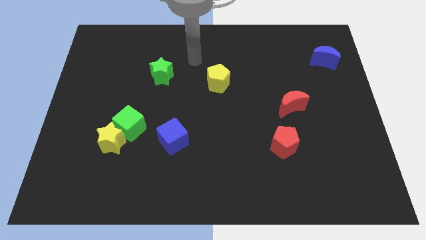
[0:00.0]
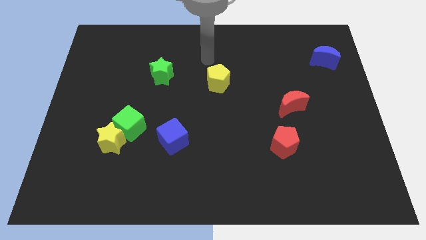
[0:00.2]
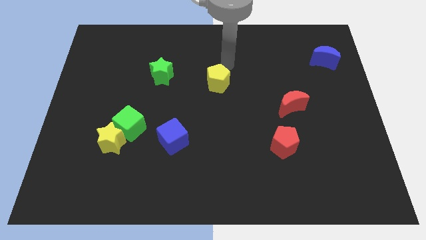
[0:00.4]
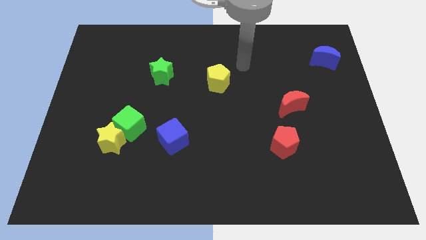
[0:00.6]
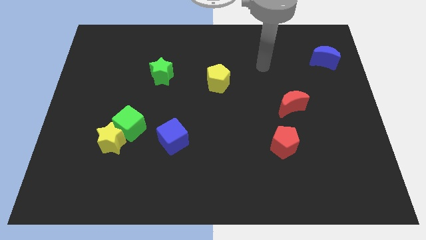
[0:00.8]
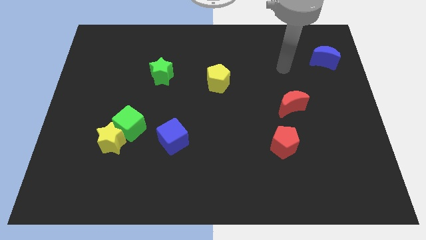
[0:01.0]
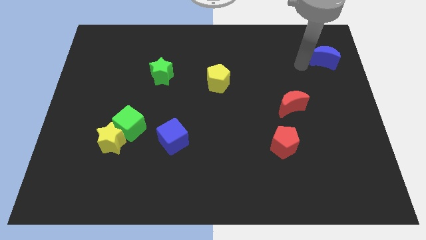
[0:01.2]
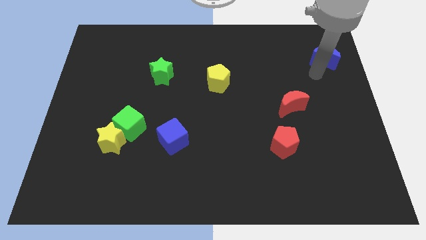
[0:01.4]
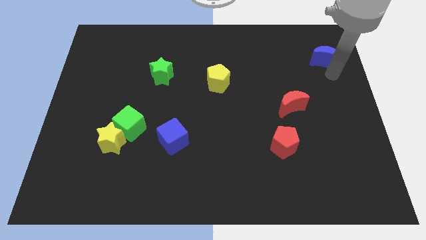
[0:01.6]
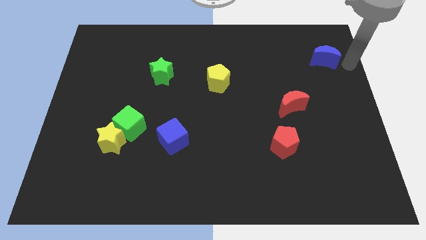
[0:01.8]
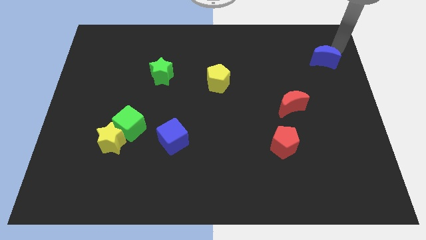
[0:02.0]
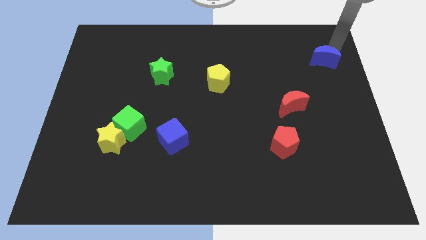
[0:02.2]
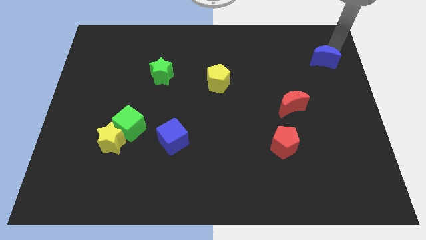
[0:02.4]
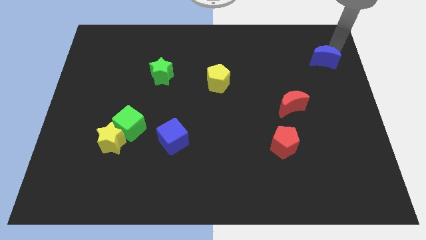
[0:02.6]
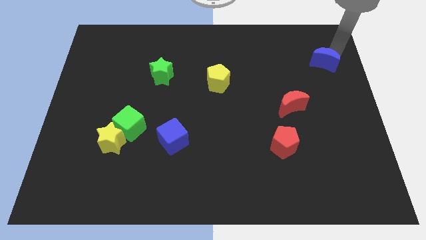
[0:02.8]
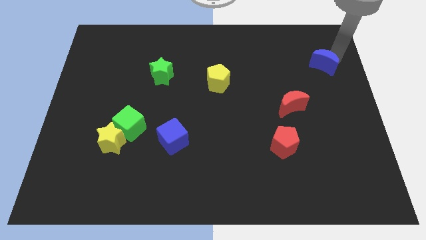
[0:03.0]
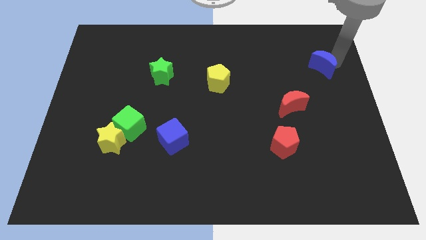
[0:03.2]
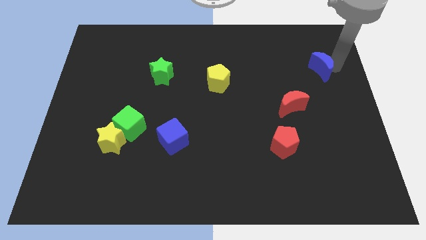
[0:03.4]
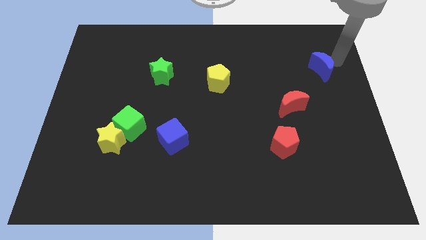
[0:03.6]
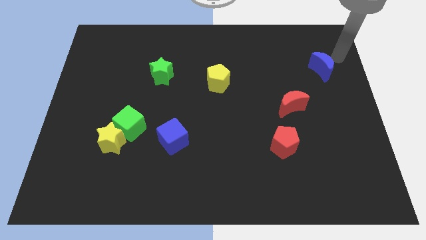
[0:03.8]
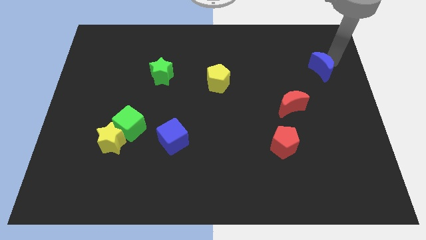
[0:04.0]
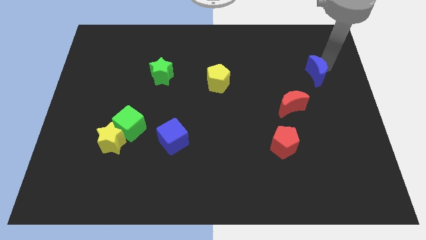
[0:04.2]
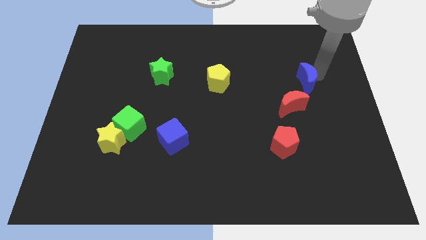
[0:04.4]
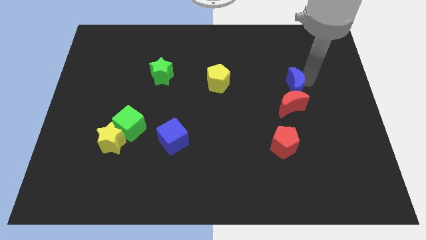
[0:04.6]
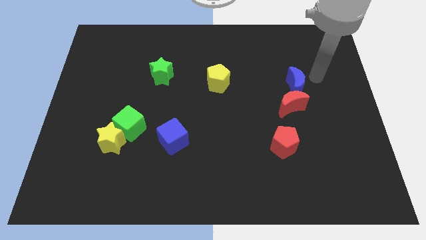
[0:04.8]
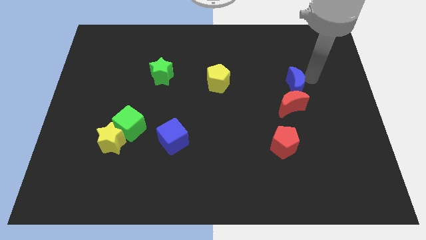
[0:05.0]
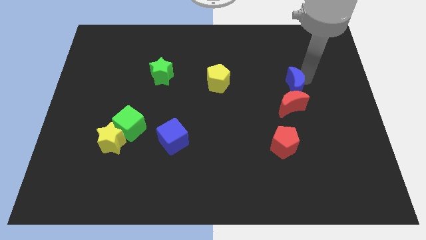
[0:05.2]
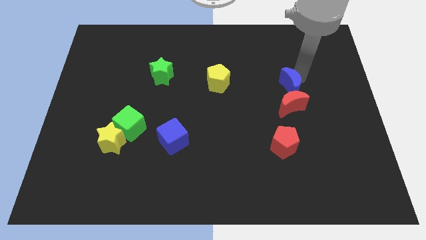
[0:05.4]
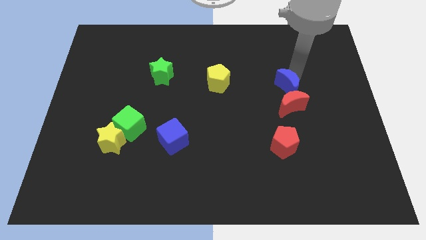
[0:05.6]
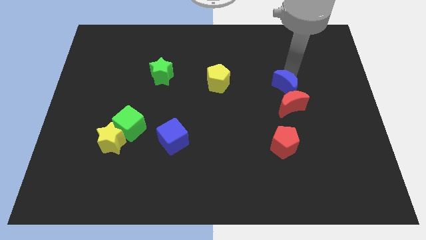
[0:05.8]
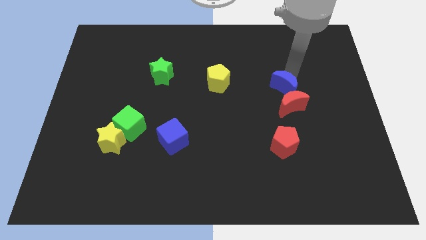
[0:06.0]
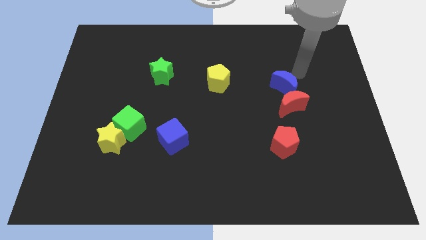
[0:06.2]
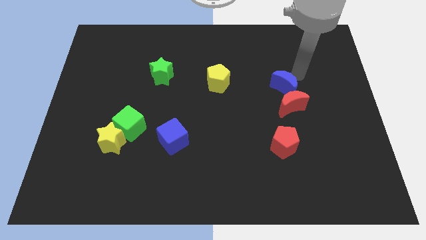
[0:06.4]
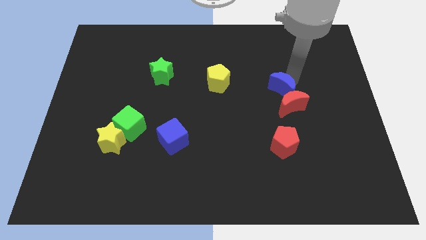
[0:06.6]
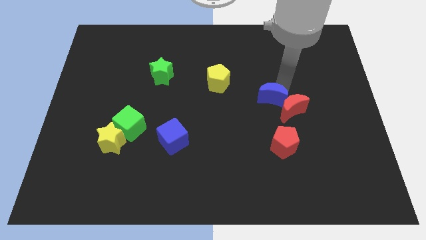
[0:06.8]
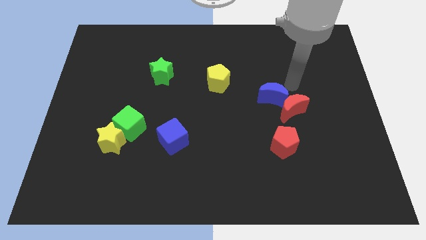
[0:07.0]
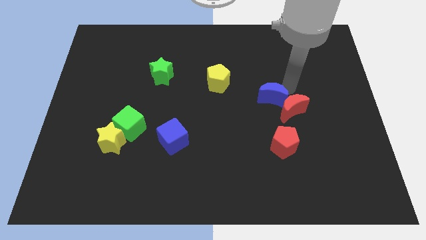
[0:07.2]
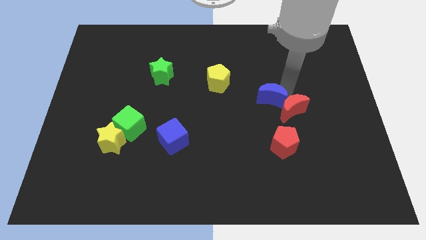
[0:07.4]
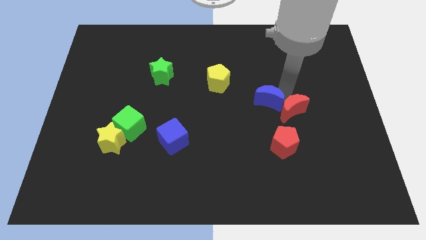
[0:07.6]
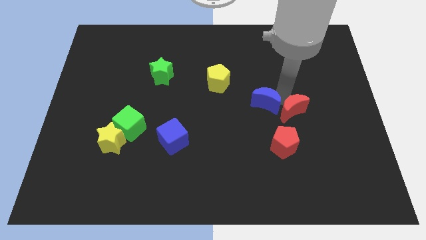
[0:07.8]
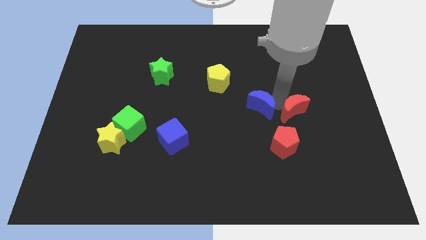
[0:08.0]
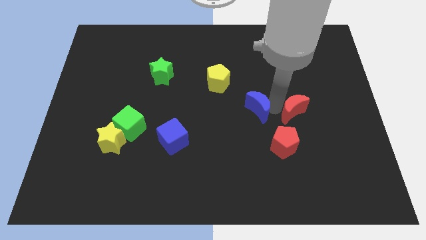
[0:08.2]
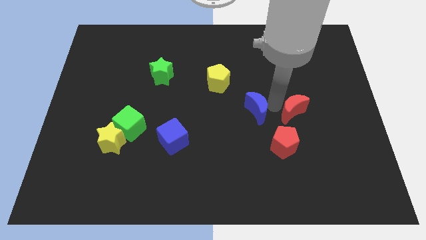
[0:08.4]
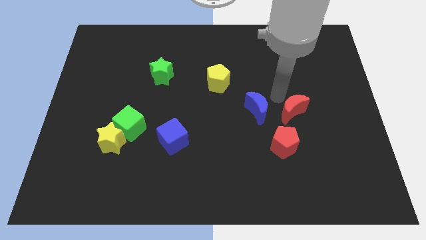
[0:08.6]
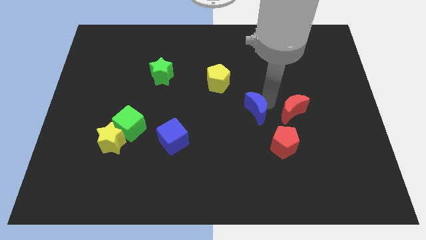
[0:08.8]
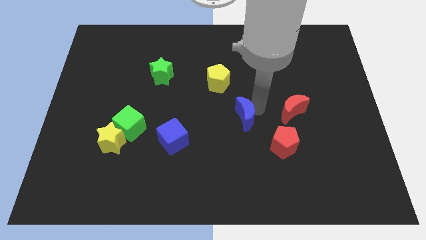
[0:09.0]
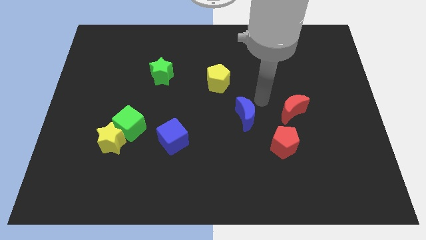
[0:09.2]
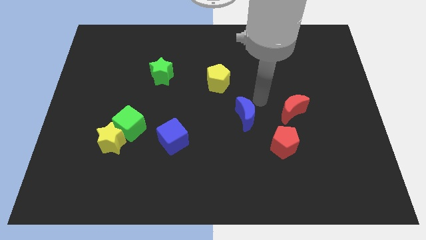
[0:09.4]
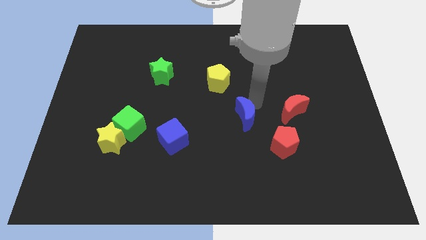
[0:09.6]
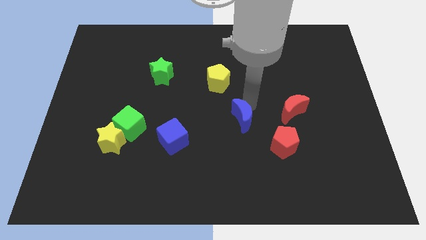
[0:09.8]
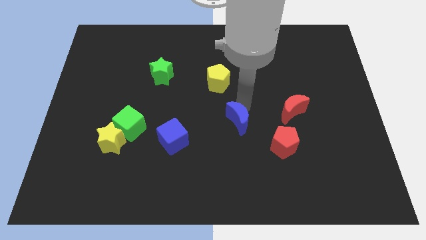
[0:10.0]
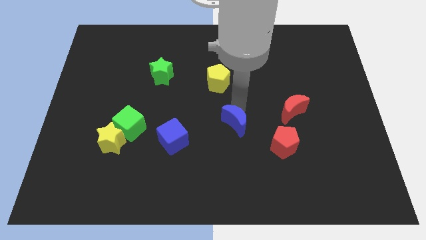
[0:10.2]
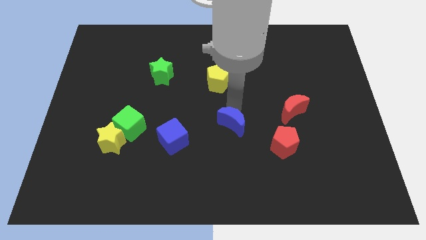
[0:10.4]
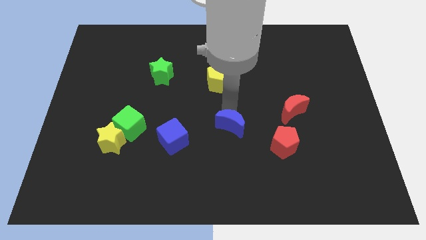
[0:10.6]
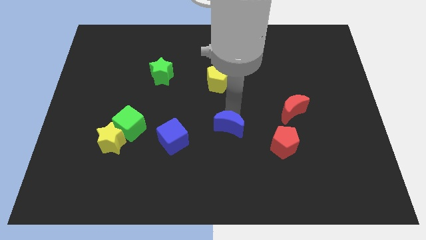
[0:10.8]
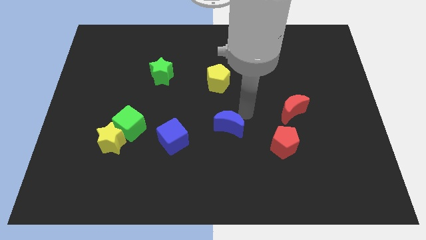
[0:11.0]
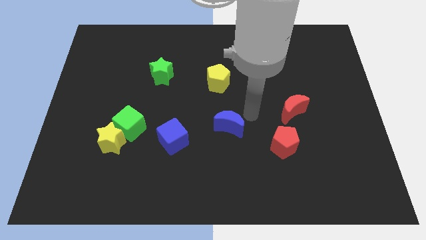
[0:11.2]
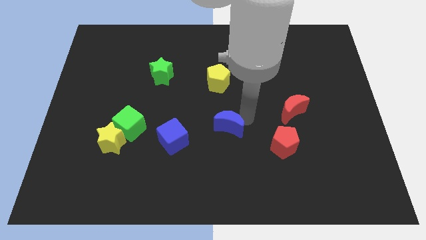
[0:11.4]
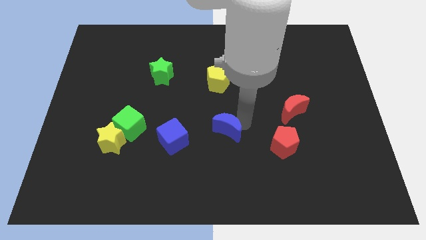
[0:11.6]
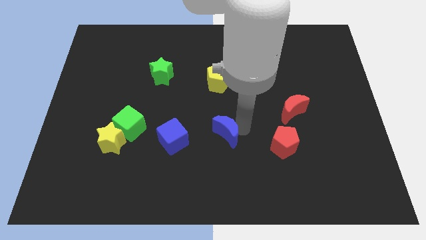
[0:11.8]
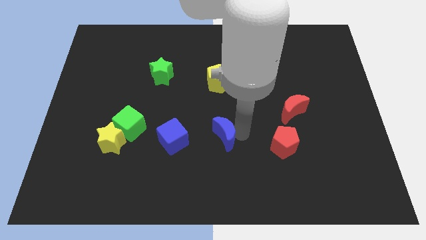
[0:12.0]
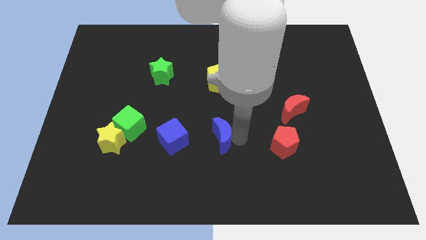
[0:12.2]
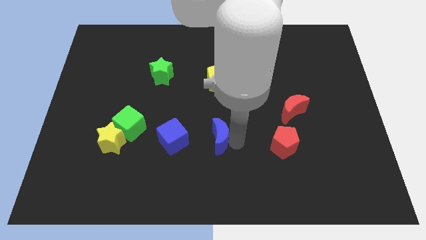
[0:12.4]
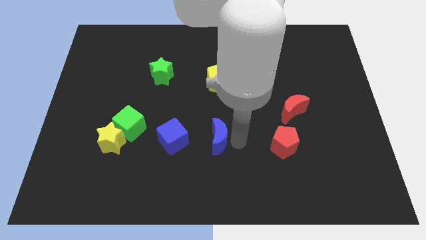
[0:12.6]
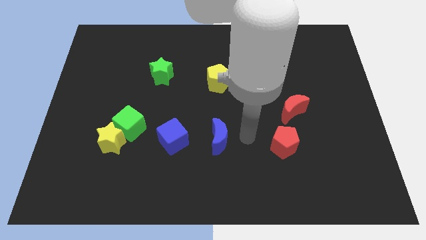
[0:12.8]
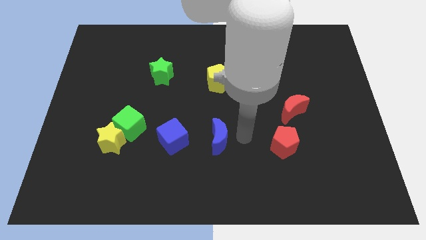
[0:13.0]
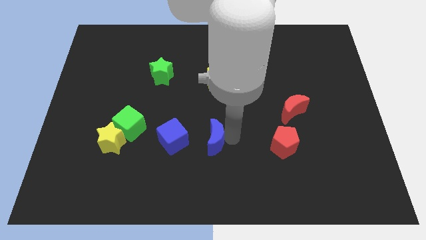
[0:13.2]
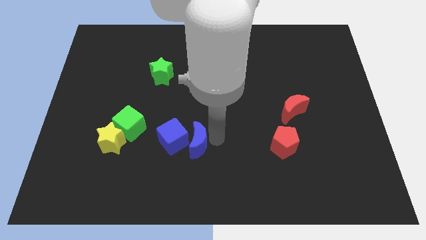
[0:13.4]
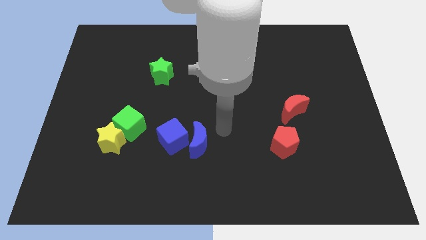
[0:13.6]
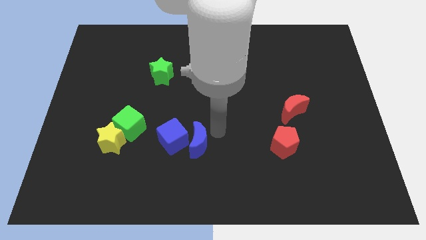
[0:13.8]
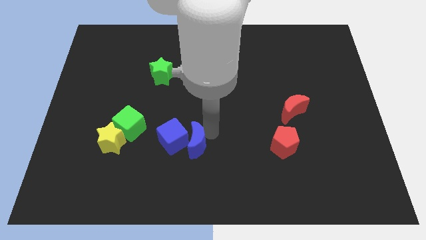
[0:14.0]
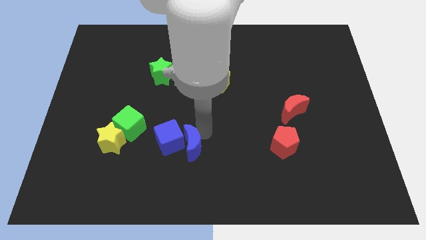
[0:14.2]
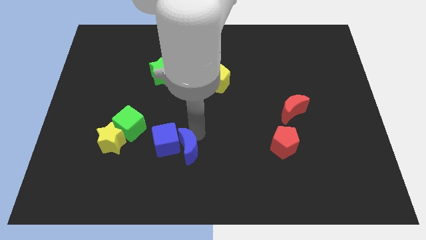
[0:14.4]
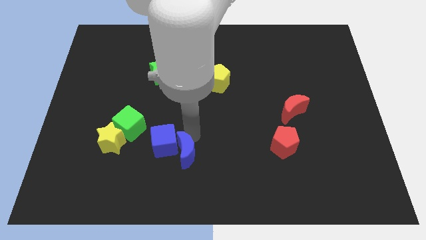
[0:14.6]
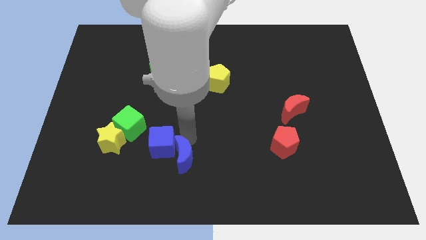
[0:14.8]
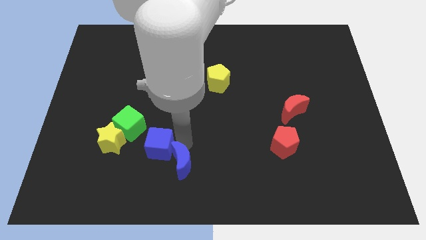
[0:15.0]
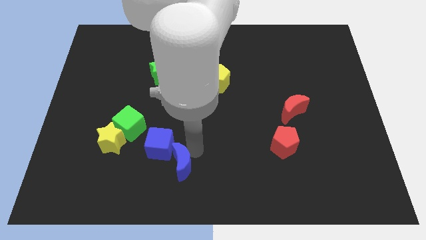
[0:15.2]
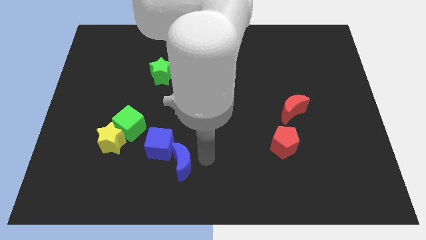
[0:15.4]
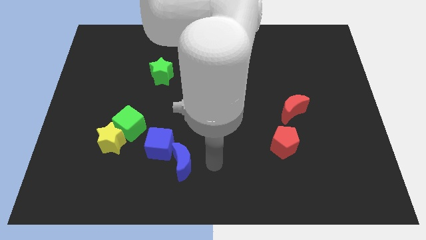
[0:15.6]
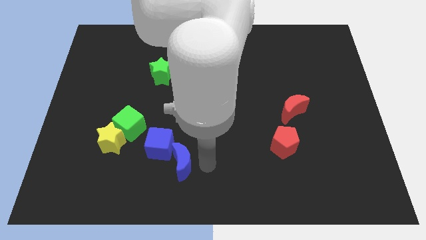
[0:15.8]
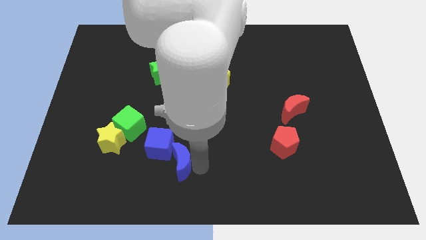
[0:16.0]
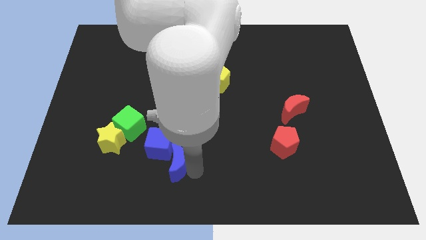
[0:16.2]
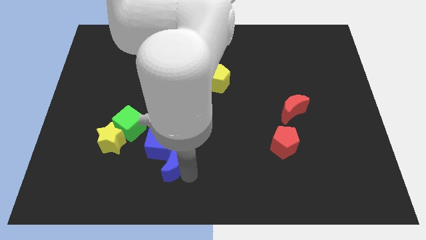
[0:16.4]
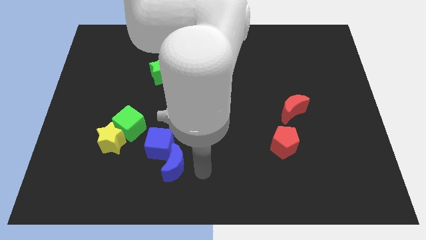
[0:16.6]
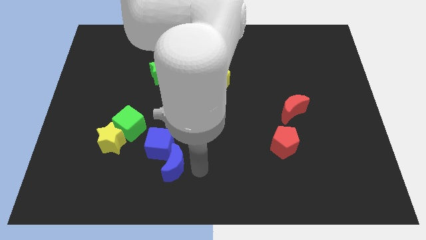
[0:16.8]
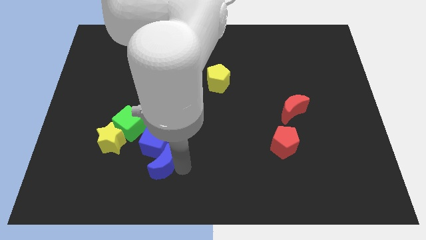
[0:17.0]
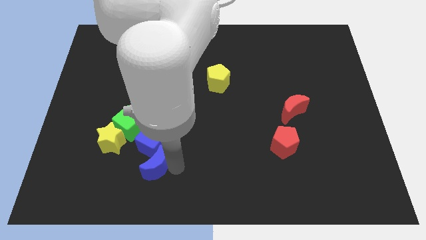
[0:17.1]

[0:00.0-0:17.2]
move the blue moon diagonally down and to the right of the yellow star
